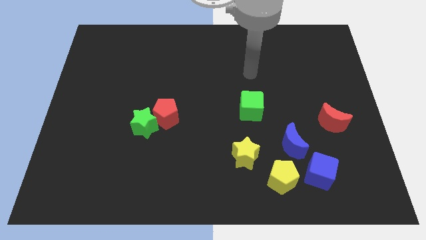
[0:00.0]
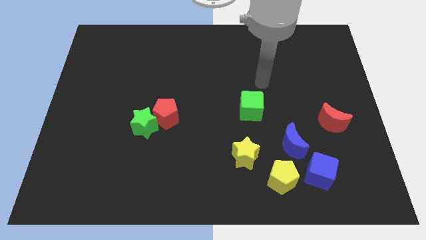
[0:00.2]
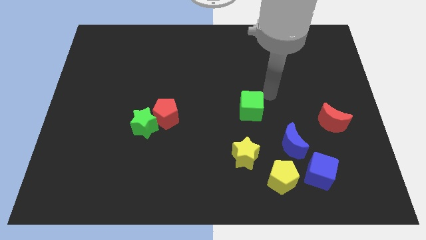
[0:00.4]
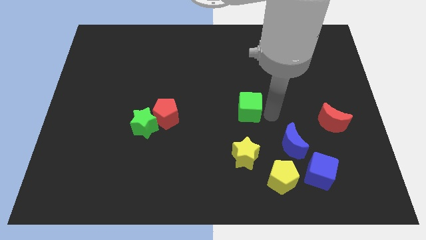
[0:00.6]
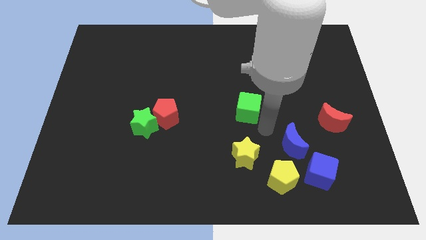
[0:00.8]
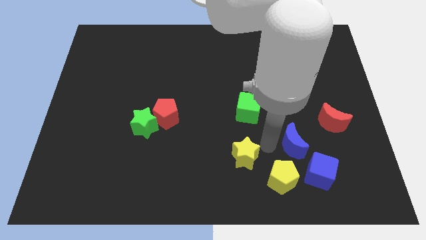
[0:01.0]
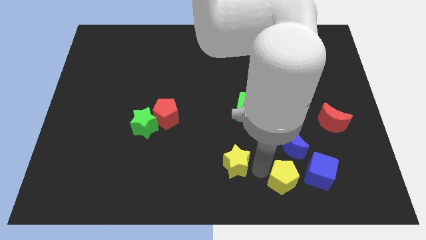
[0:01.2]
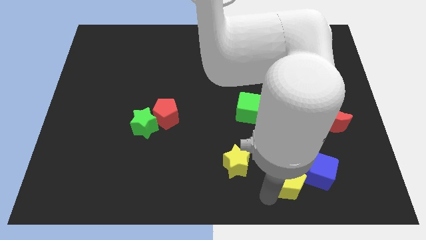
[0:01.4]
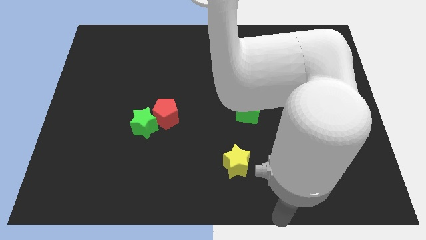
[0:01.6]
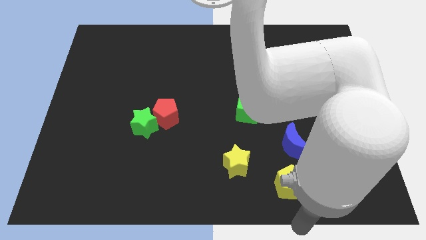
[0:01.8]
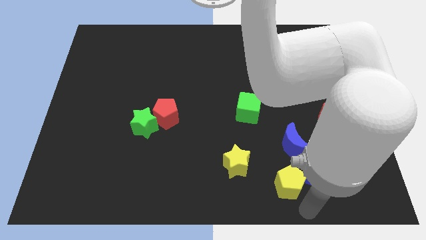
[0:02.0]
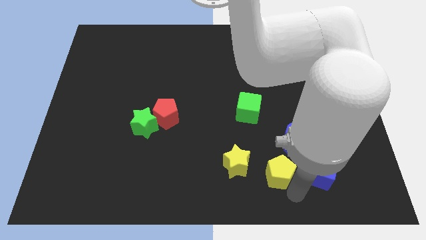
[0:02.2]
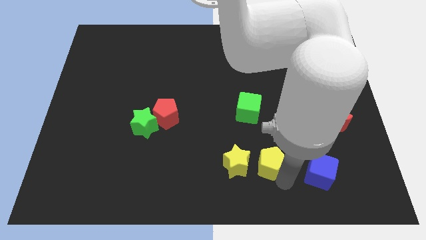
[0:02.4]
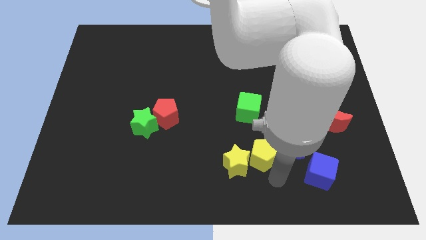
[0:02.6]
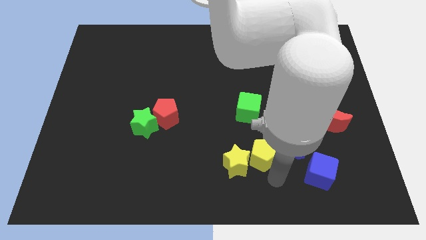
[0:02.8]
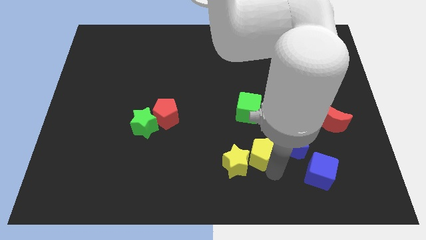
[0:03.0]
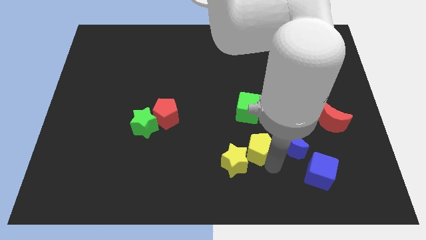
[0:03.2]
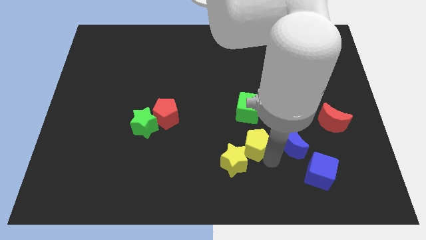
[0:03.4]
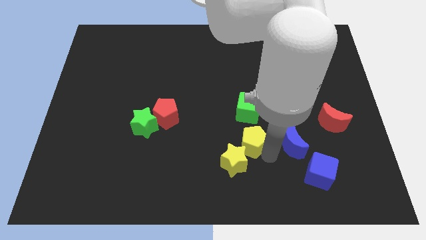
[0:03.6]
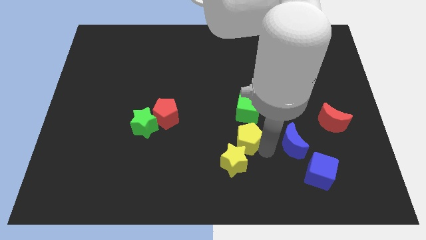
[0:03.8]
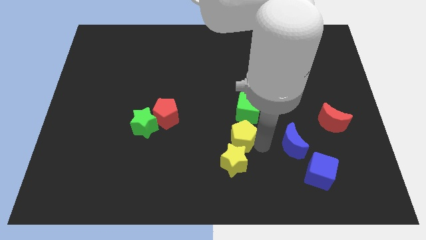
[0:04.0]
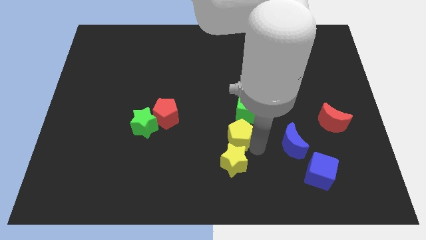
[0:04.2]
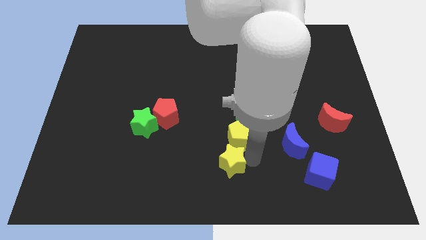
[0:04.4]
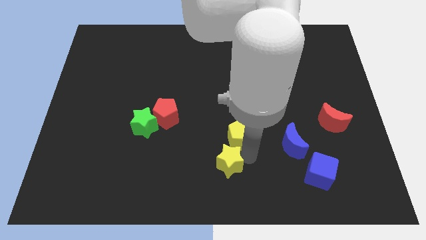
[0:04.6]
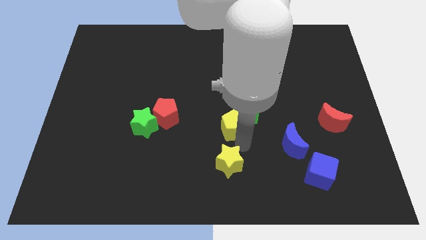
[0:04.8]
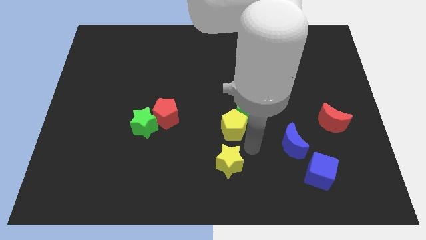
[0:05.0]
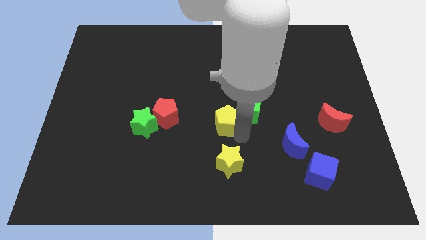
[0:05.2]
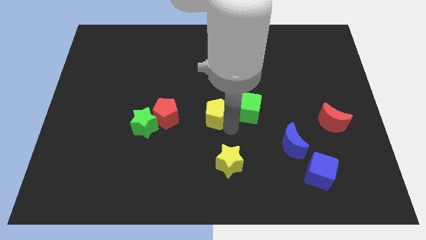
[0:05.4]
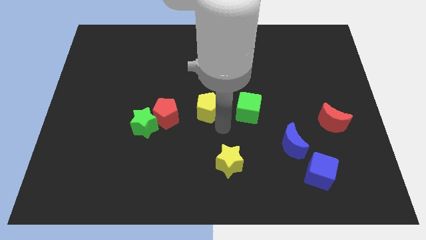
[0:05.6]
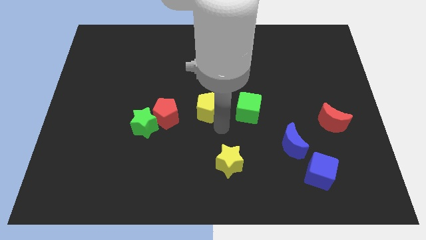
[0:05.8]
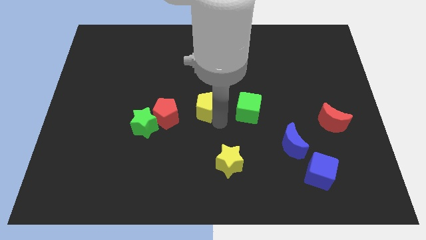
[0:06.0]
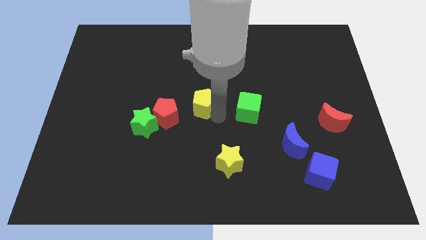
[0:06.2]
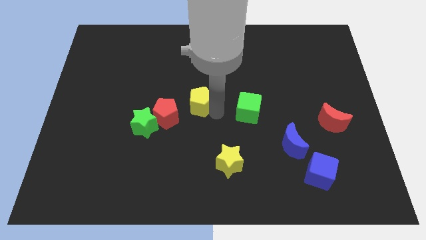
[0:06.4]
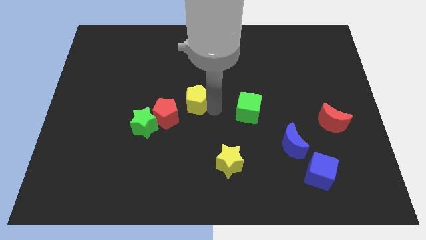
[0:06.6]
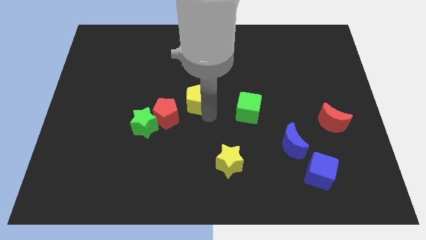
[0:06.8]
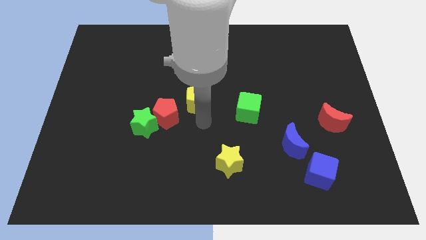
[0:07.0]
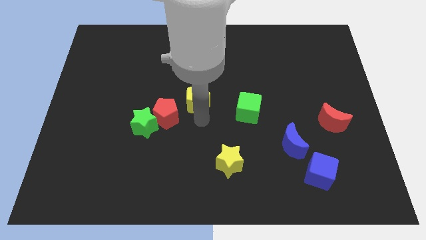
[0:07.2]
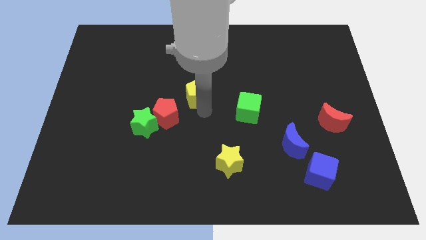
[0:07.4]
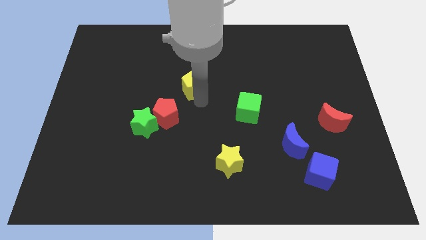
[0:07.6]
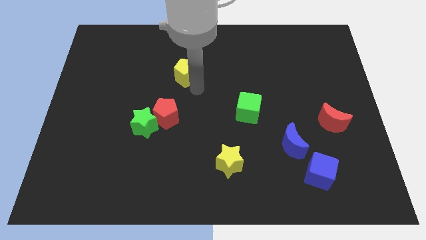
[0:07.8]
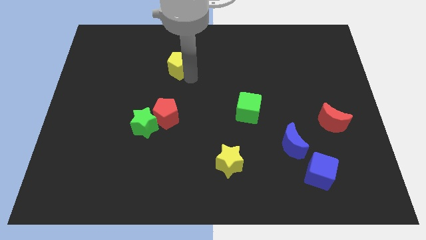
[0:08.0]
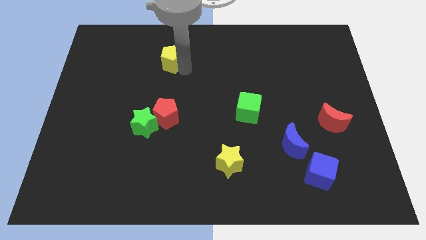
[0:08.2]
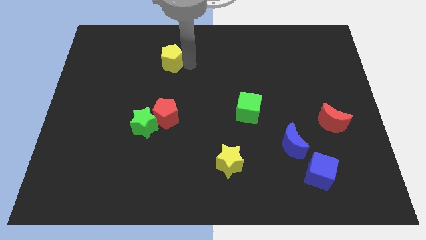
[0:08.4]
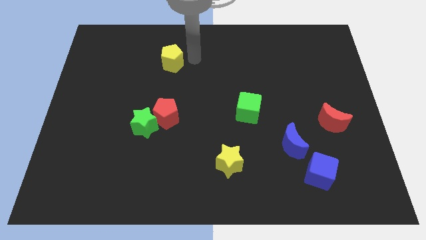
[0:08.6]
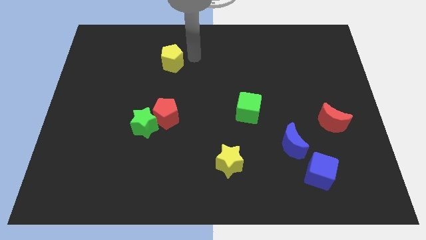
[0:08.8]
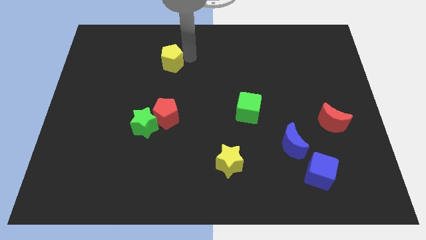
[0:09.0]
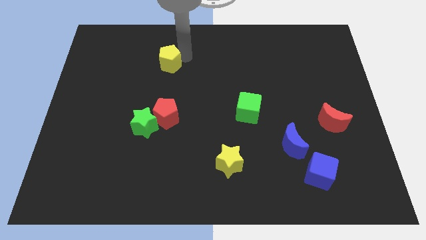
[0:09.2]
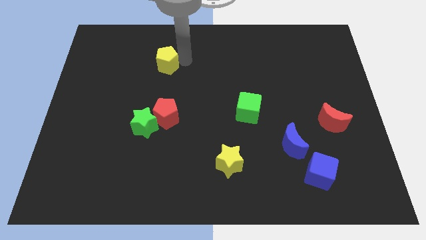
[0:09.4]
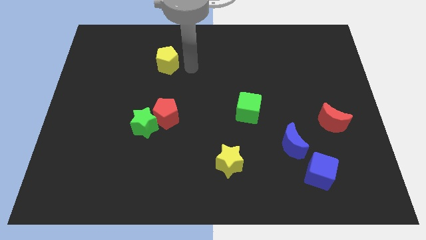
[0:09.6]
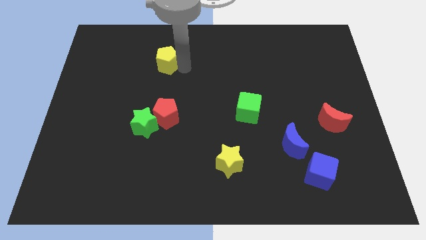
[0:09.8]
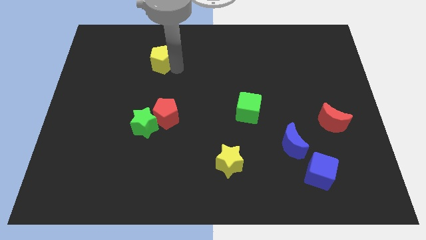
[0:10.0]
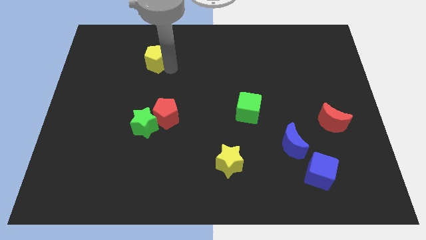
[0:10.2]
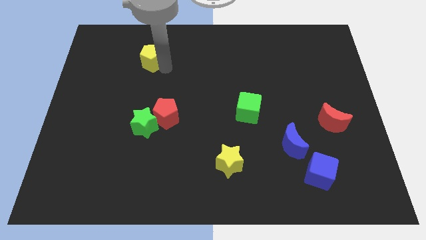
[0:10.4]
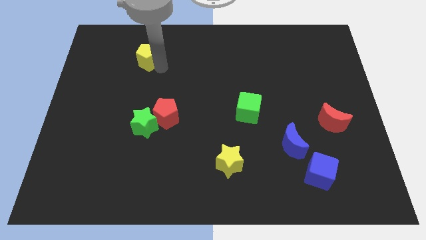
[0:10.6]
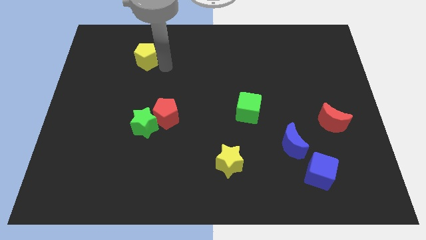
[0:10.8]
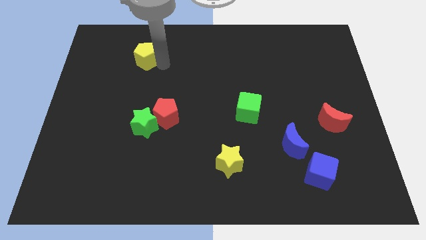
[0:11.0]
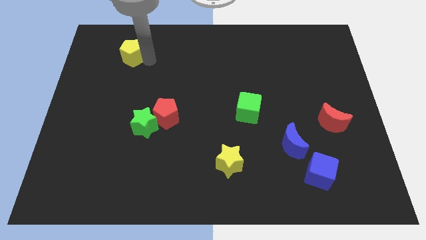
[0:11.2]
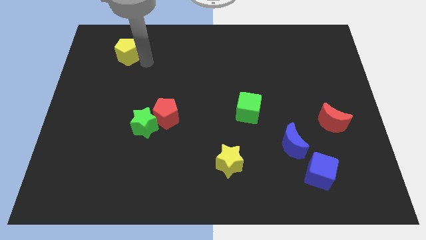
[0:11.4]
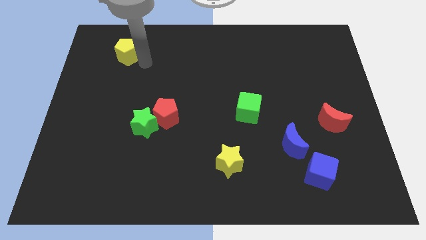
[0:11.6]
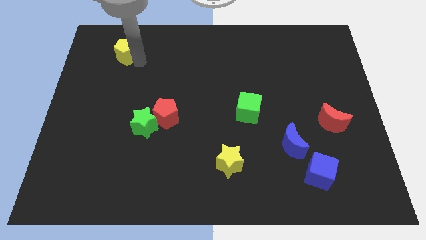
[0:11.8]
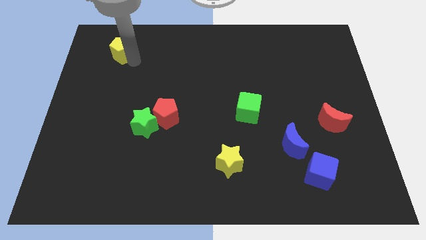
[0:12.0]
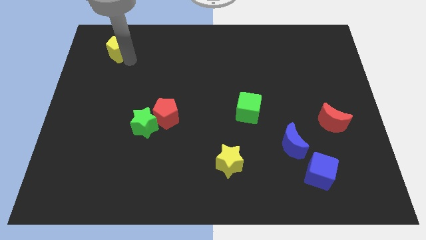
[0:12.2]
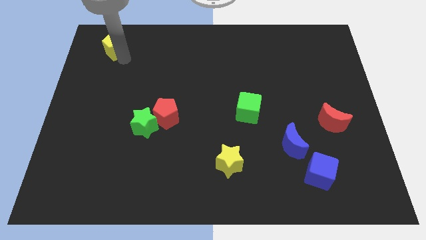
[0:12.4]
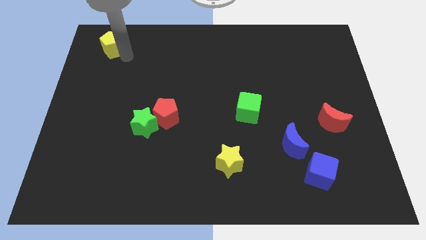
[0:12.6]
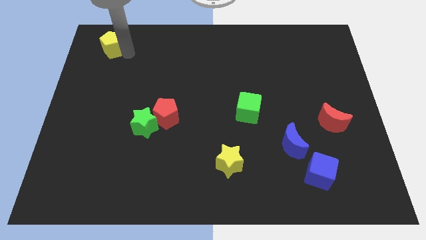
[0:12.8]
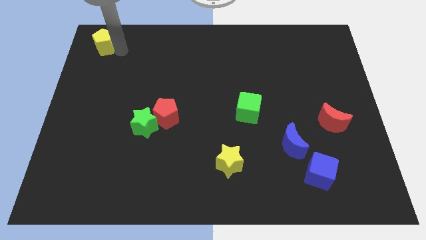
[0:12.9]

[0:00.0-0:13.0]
slide the yellow pentagon to the top left corner
